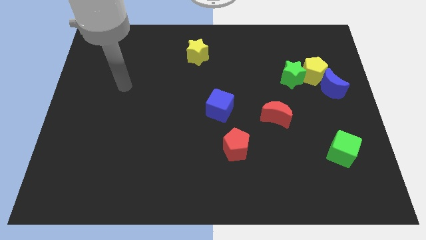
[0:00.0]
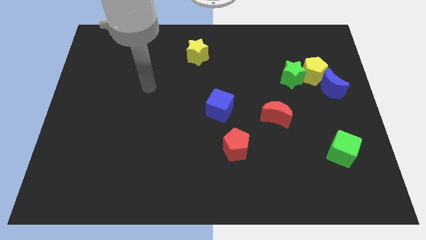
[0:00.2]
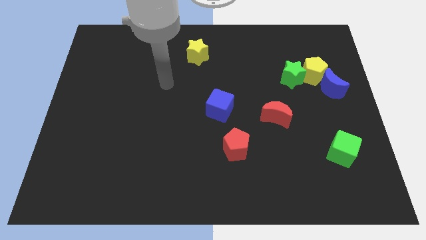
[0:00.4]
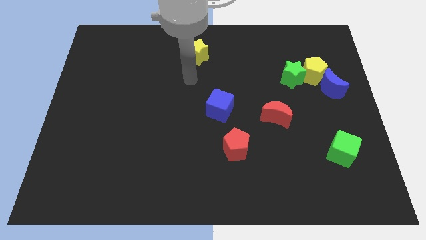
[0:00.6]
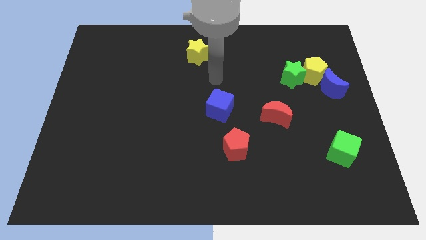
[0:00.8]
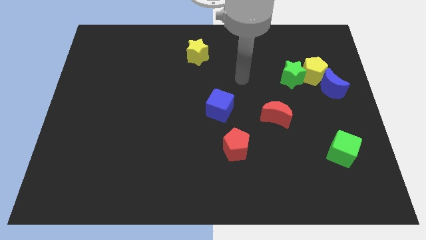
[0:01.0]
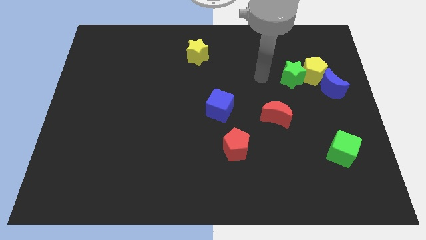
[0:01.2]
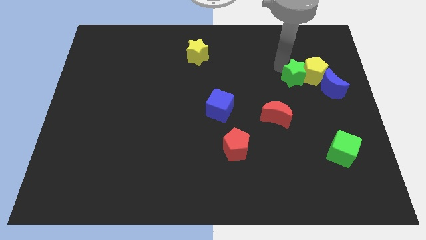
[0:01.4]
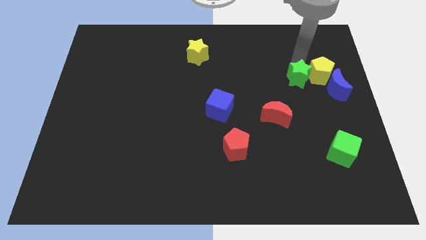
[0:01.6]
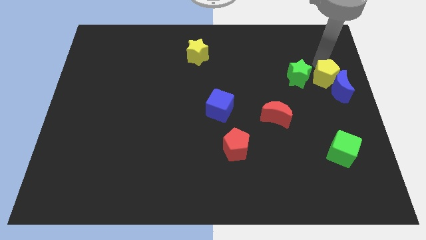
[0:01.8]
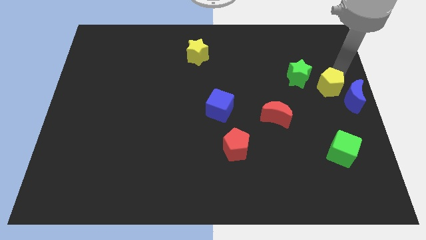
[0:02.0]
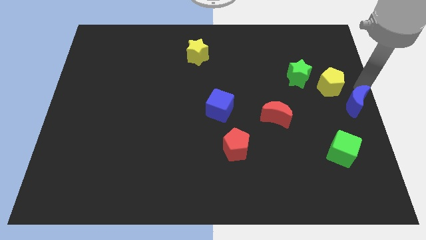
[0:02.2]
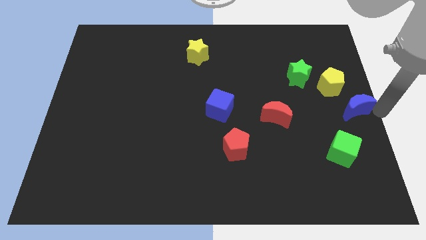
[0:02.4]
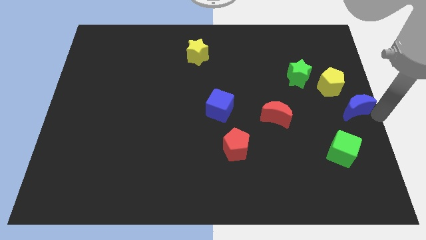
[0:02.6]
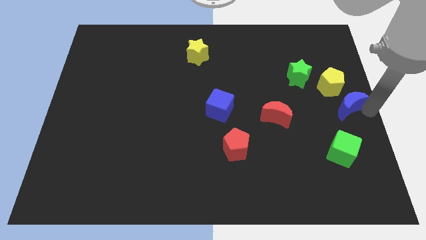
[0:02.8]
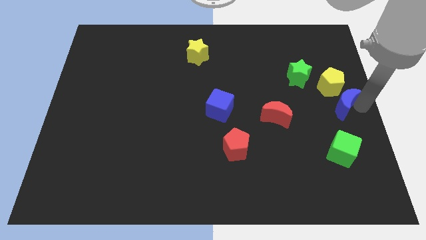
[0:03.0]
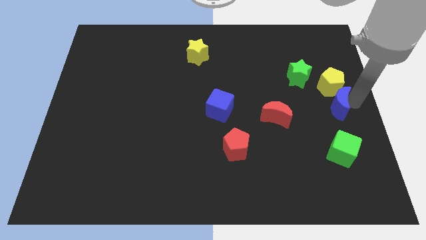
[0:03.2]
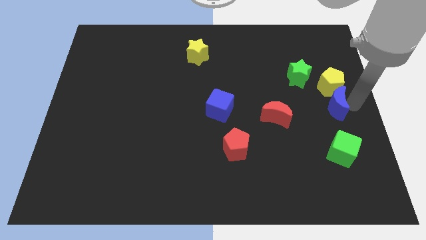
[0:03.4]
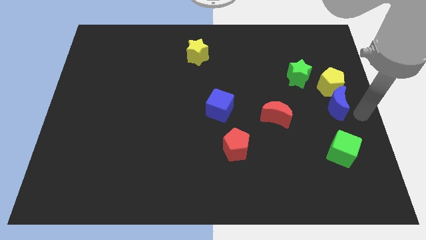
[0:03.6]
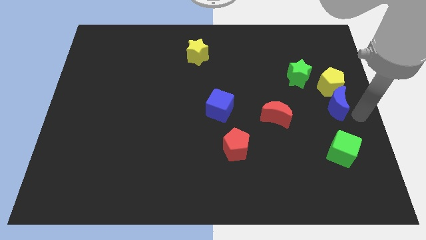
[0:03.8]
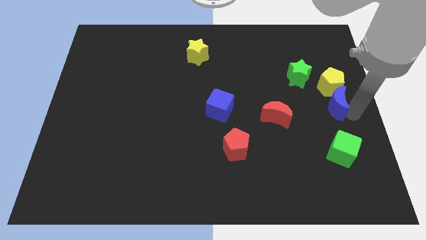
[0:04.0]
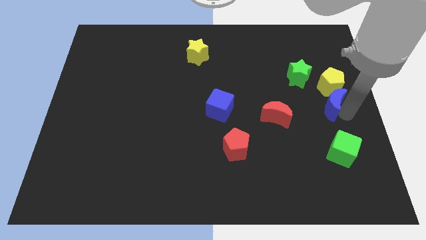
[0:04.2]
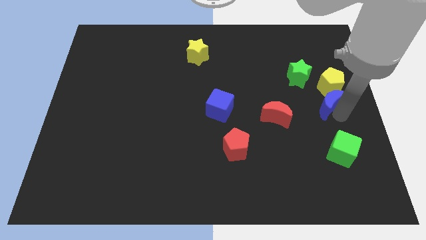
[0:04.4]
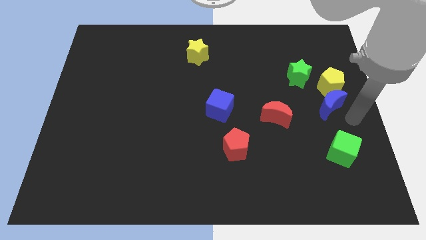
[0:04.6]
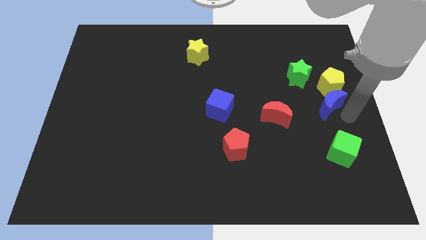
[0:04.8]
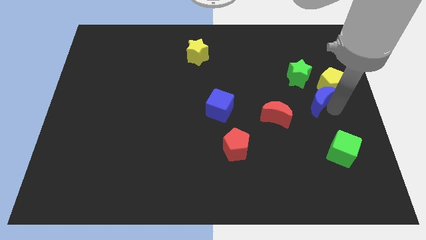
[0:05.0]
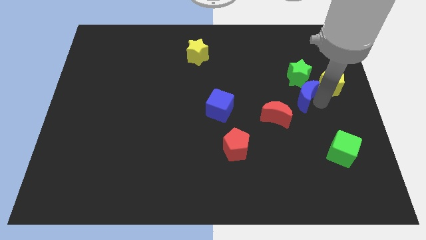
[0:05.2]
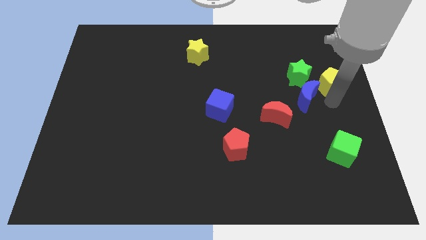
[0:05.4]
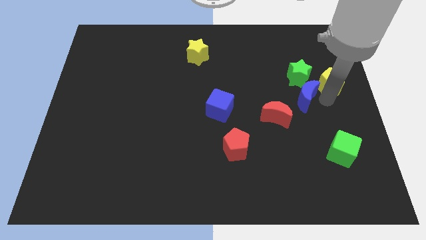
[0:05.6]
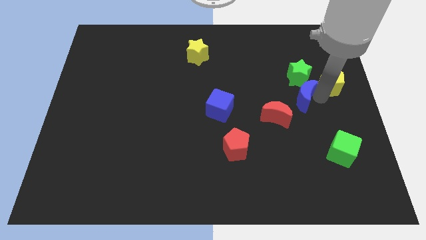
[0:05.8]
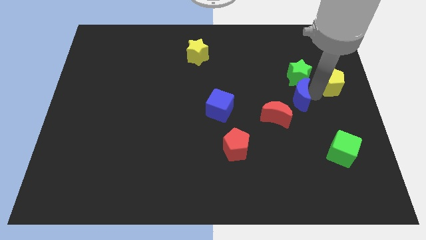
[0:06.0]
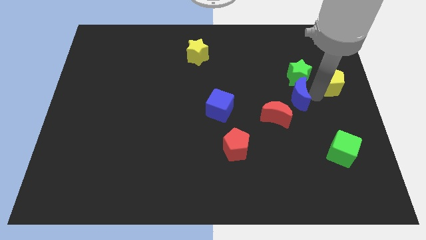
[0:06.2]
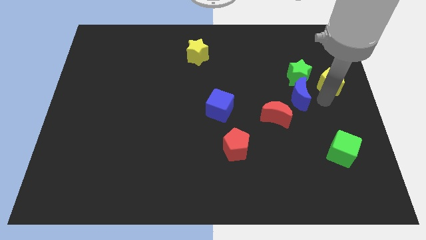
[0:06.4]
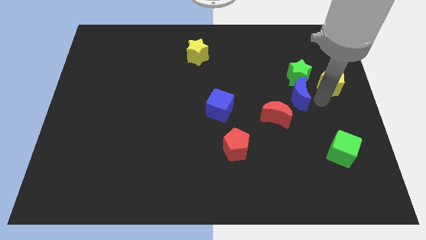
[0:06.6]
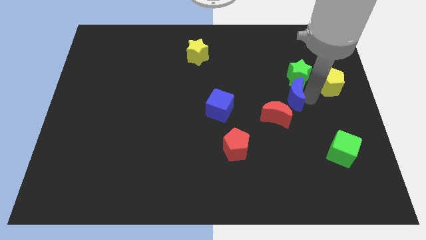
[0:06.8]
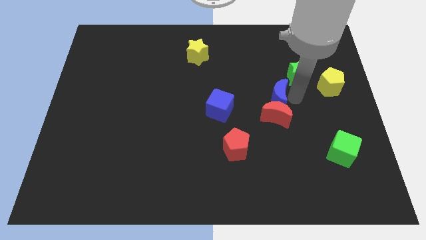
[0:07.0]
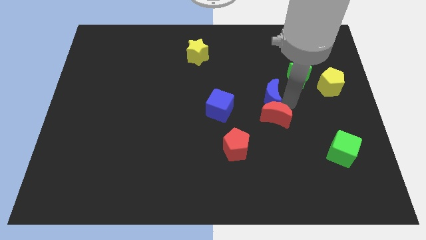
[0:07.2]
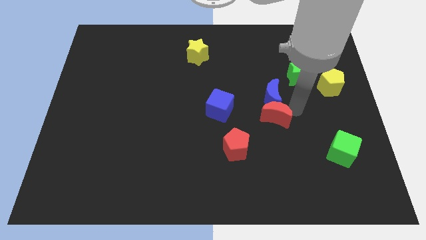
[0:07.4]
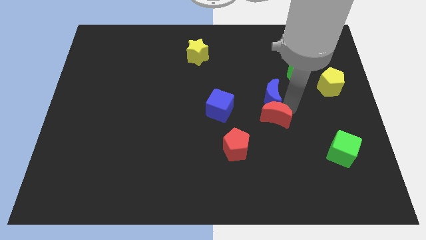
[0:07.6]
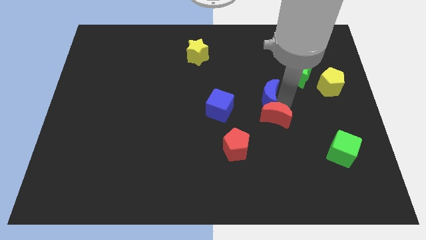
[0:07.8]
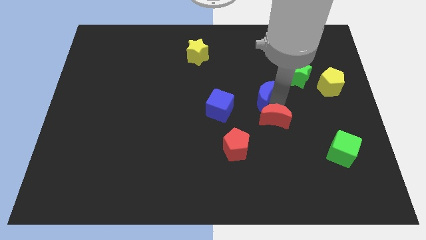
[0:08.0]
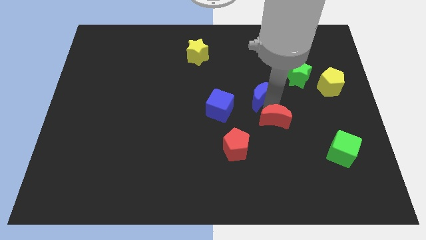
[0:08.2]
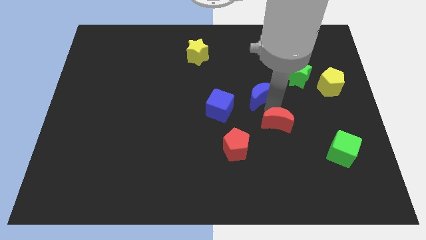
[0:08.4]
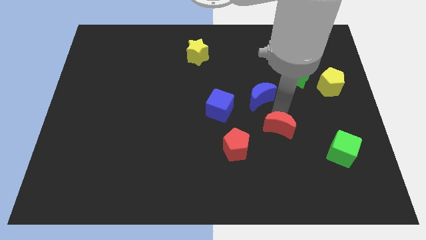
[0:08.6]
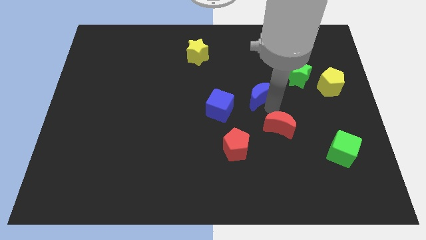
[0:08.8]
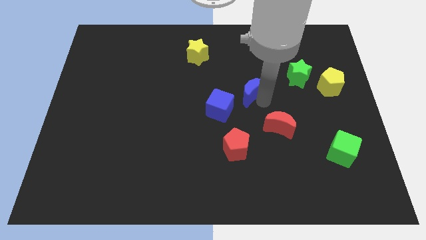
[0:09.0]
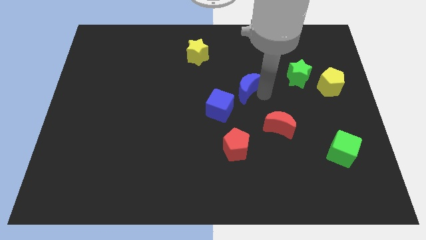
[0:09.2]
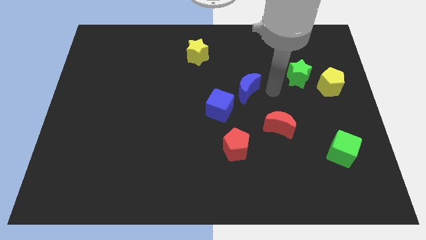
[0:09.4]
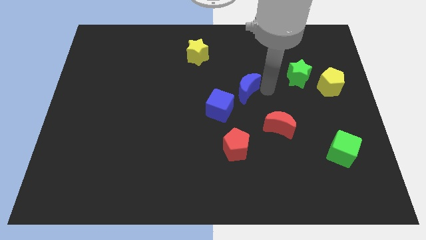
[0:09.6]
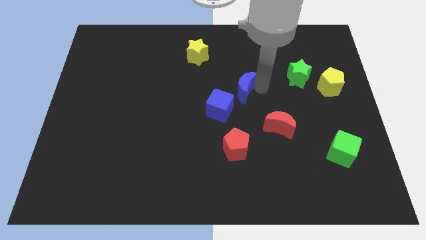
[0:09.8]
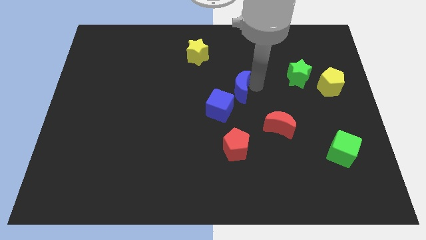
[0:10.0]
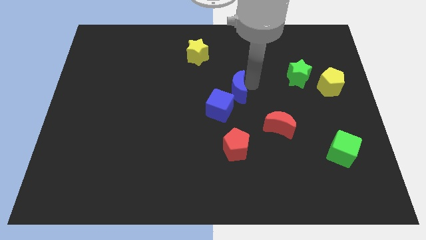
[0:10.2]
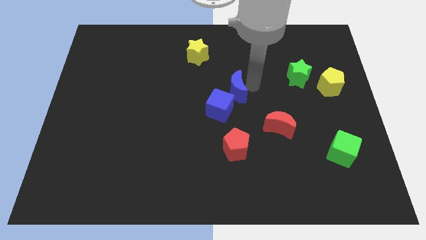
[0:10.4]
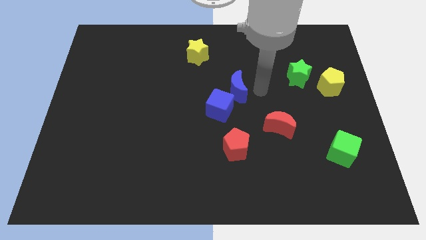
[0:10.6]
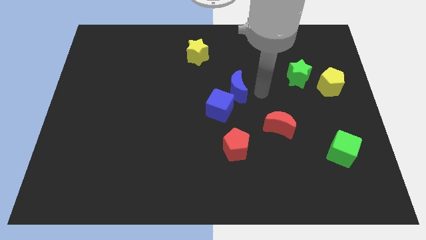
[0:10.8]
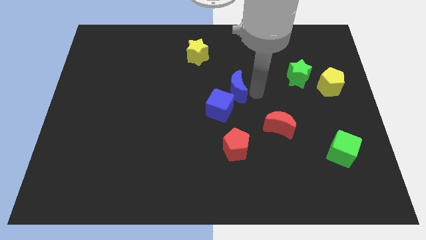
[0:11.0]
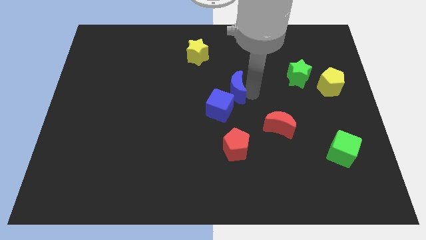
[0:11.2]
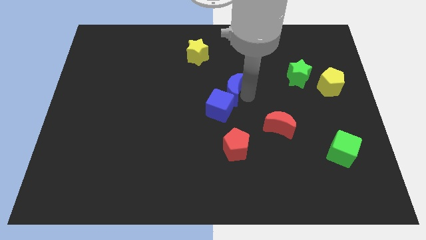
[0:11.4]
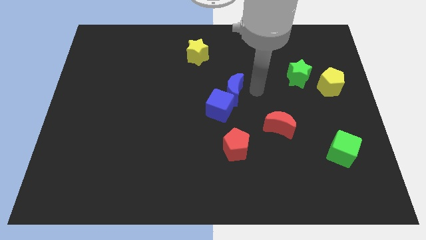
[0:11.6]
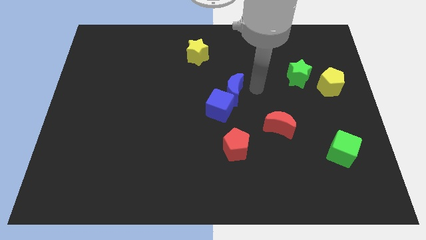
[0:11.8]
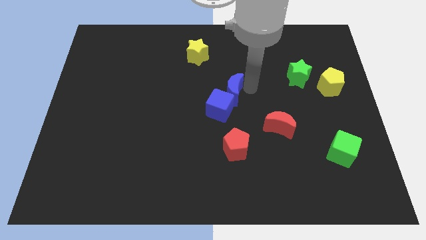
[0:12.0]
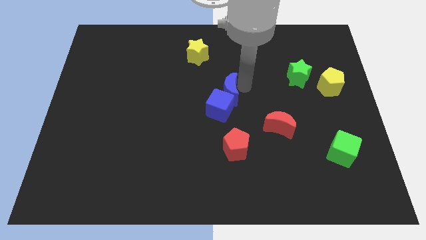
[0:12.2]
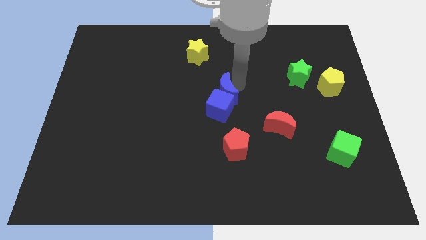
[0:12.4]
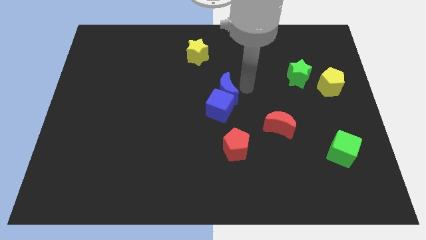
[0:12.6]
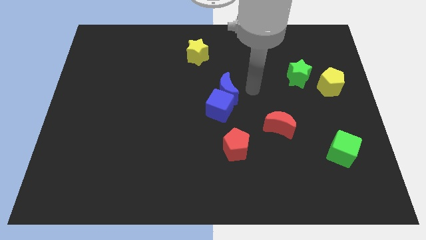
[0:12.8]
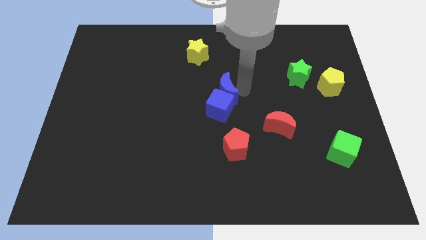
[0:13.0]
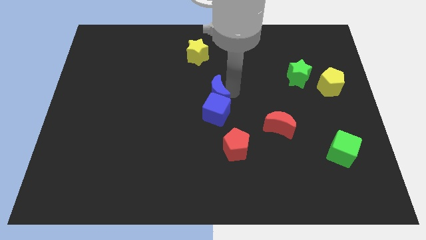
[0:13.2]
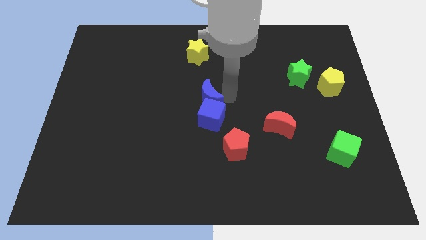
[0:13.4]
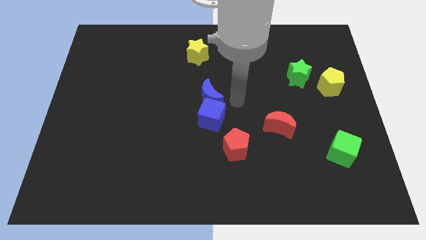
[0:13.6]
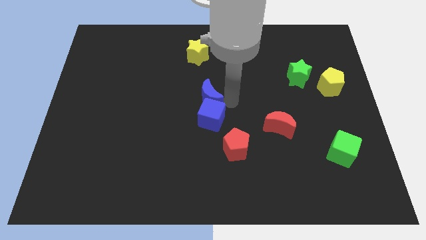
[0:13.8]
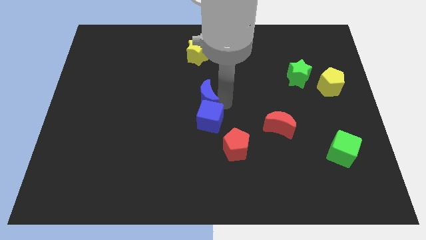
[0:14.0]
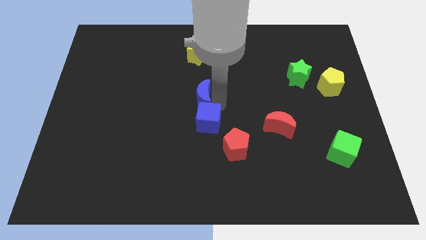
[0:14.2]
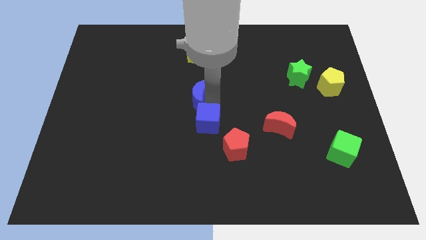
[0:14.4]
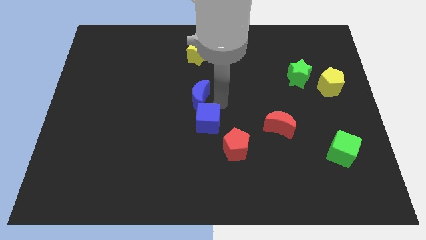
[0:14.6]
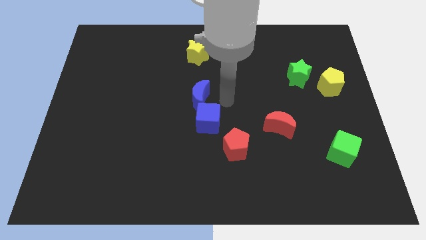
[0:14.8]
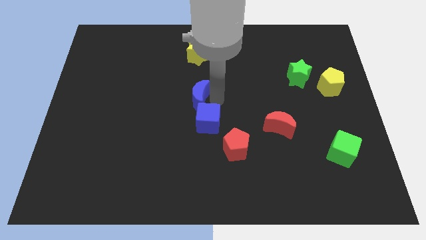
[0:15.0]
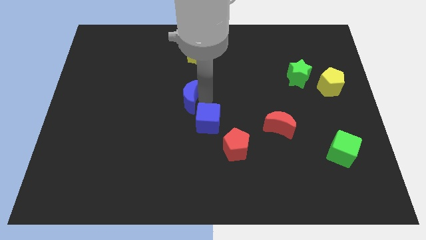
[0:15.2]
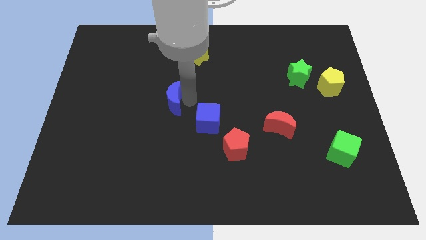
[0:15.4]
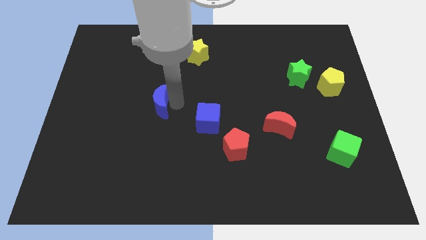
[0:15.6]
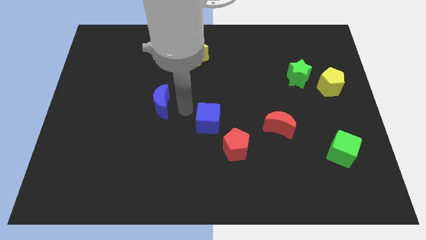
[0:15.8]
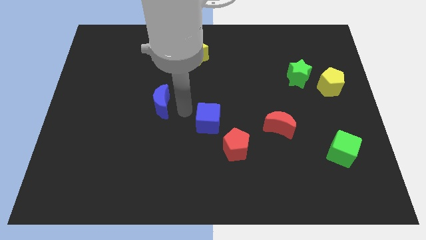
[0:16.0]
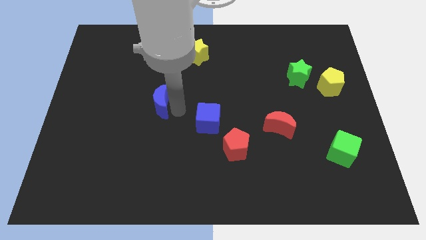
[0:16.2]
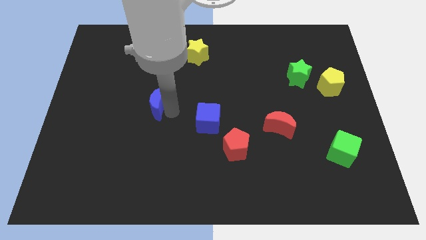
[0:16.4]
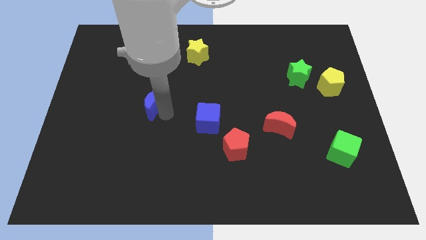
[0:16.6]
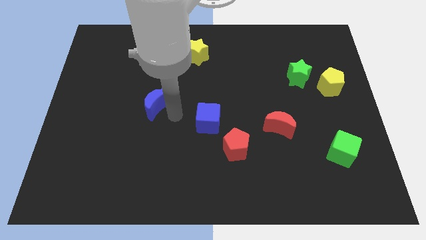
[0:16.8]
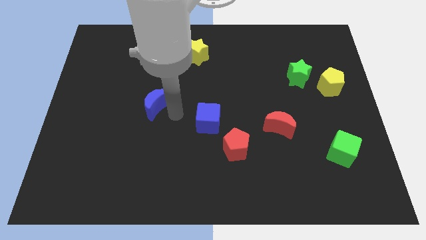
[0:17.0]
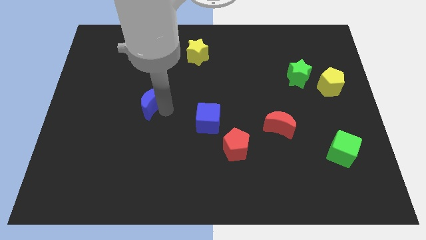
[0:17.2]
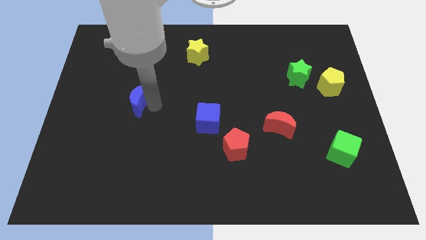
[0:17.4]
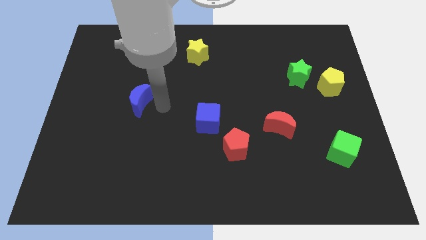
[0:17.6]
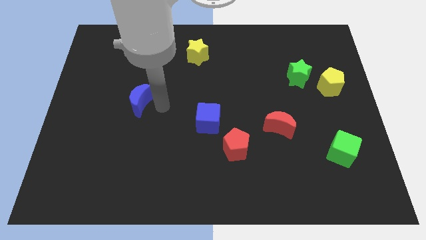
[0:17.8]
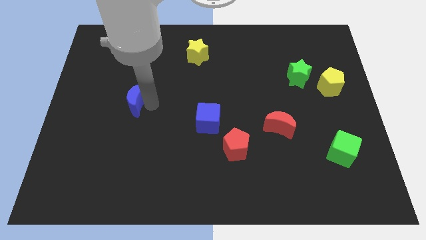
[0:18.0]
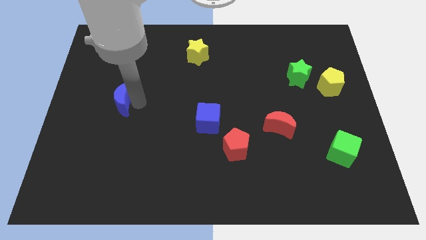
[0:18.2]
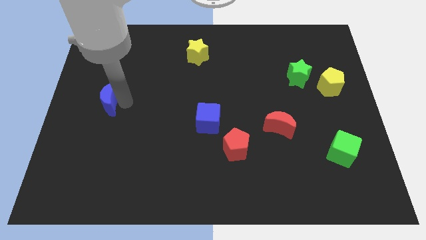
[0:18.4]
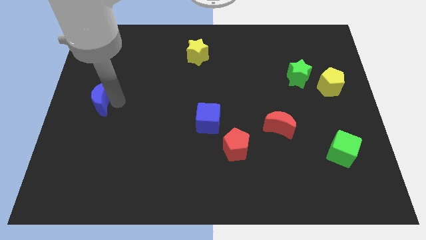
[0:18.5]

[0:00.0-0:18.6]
push the blue moon to the left side of the board
